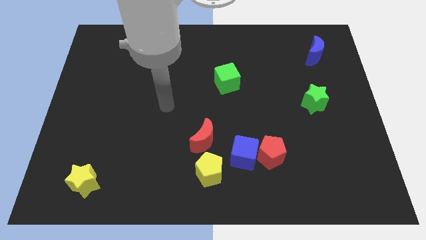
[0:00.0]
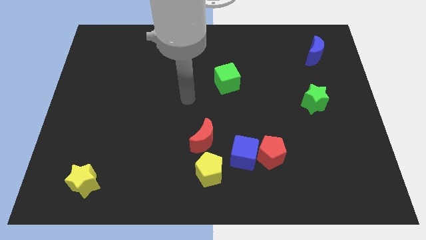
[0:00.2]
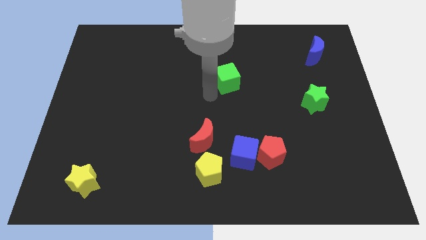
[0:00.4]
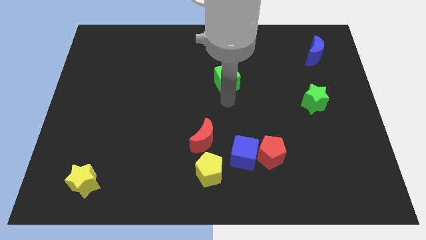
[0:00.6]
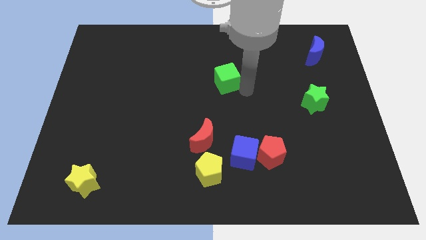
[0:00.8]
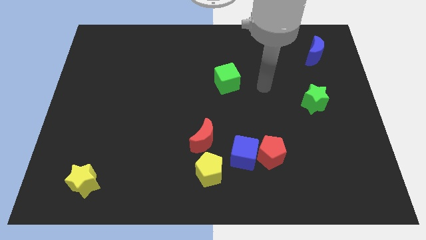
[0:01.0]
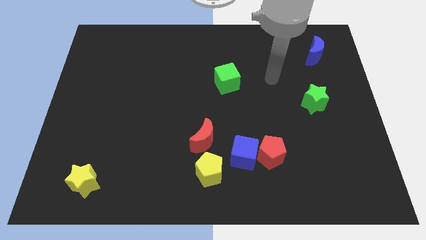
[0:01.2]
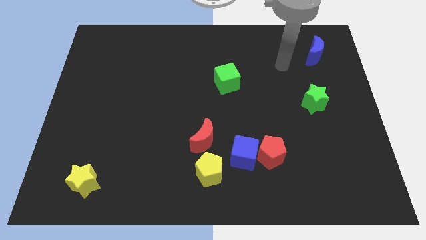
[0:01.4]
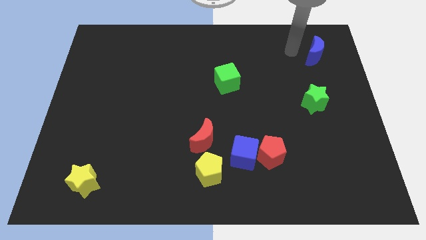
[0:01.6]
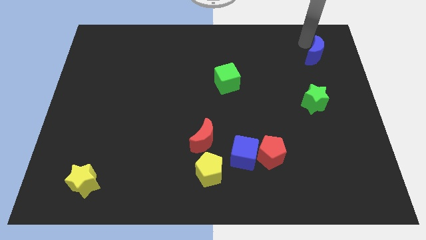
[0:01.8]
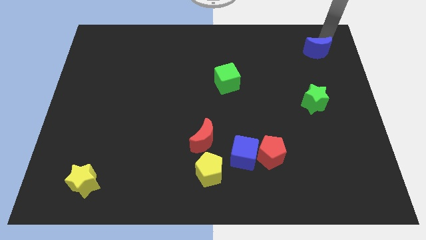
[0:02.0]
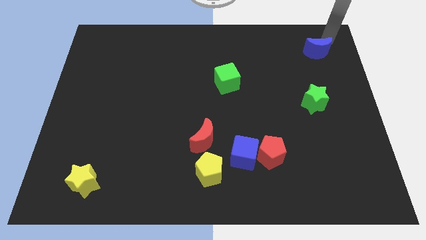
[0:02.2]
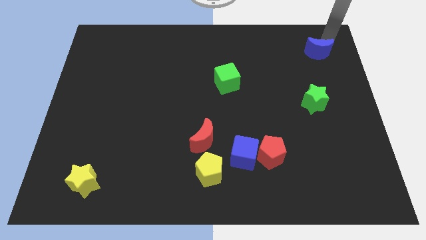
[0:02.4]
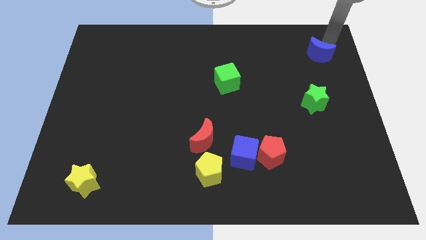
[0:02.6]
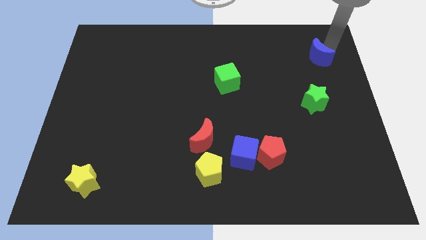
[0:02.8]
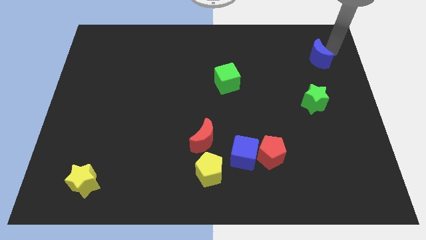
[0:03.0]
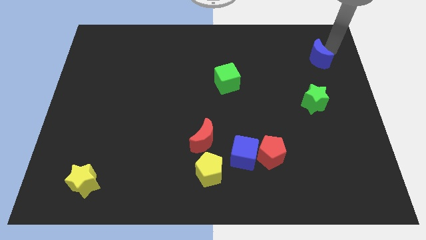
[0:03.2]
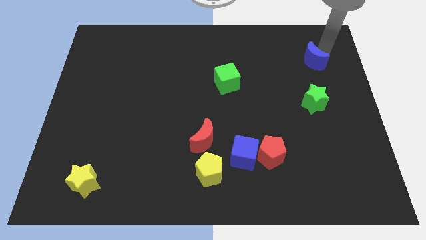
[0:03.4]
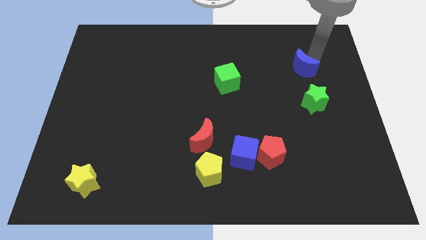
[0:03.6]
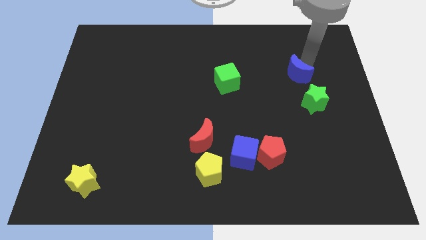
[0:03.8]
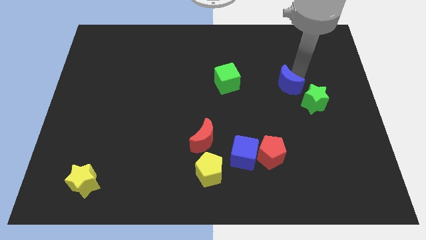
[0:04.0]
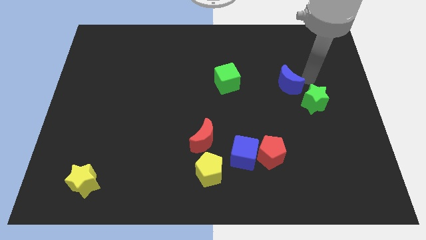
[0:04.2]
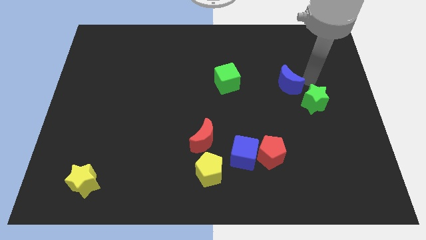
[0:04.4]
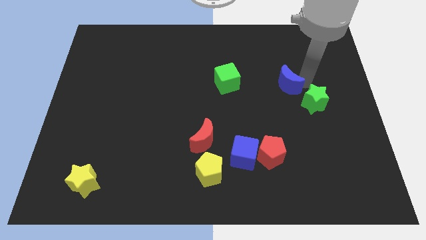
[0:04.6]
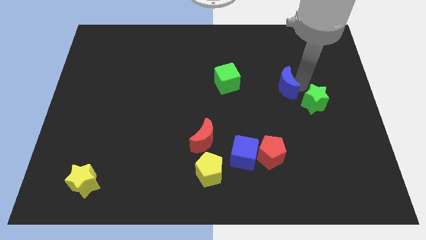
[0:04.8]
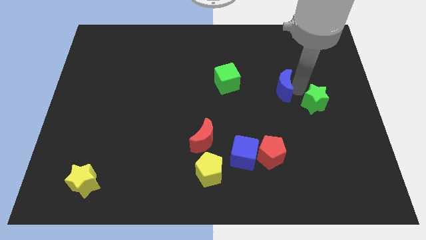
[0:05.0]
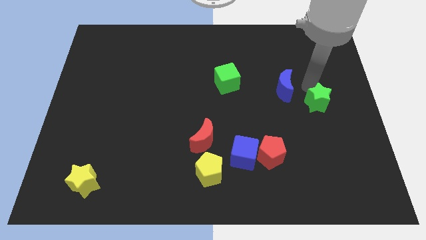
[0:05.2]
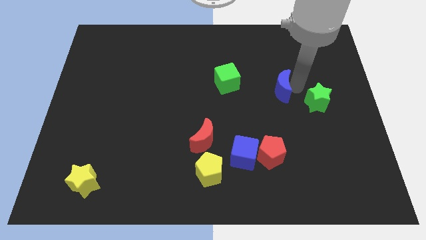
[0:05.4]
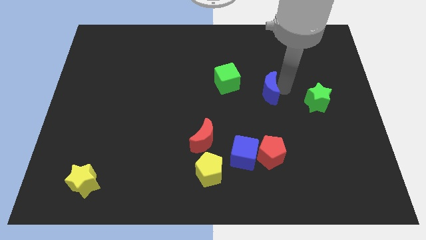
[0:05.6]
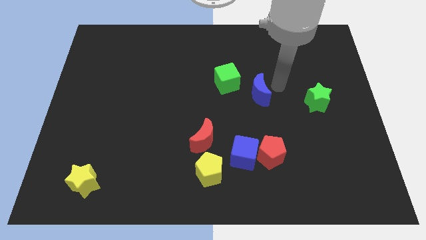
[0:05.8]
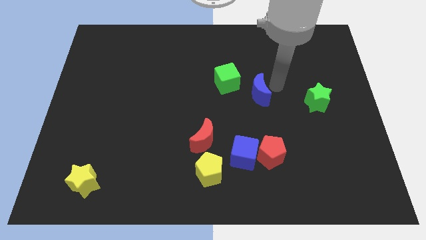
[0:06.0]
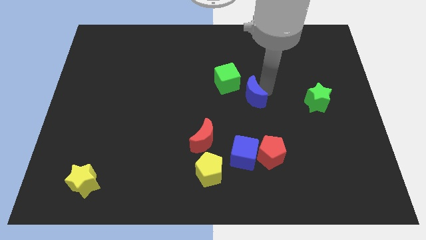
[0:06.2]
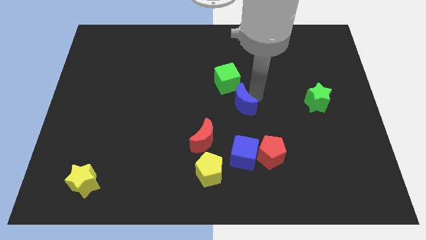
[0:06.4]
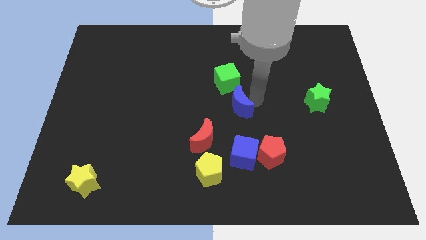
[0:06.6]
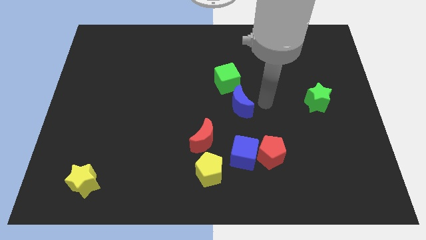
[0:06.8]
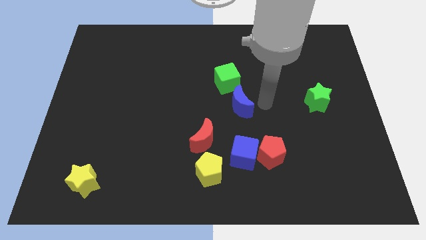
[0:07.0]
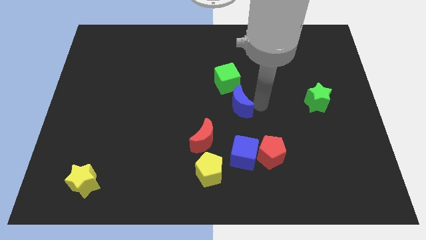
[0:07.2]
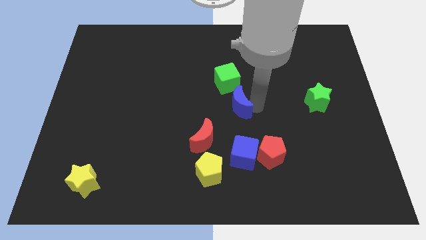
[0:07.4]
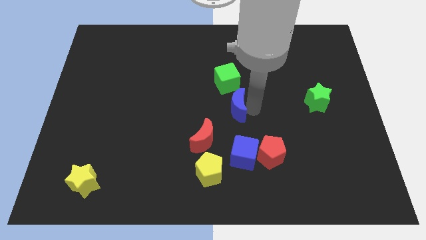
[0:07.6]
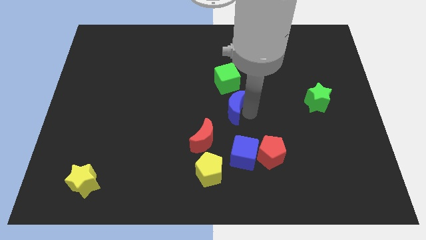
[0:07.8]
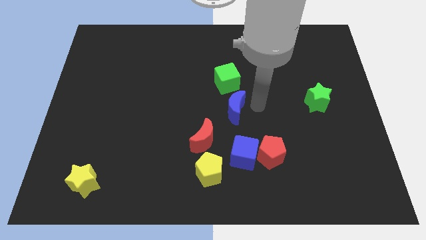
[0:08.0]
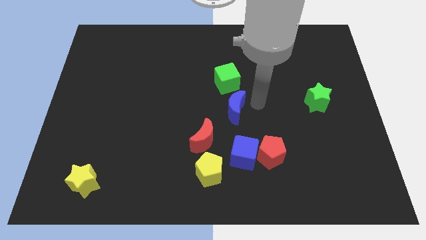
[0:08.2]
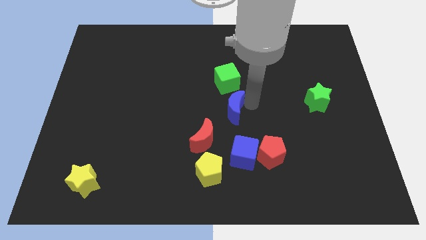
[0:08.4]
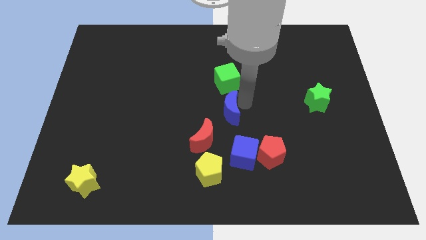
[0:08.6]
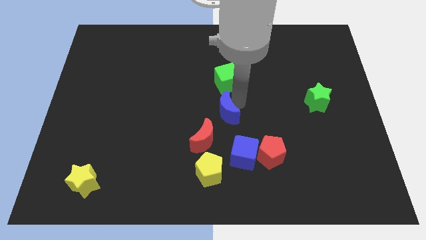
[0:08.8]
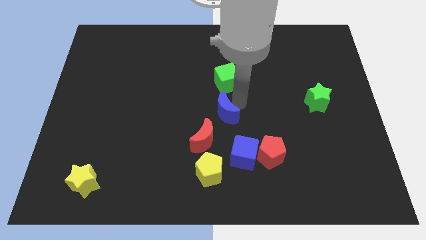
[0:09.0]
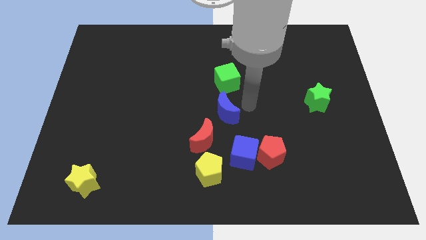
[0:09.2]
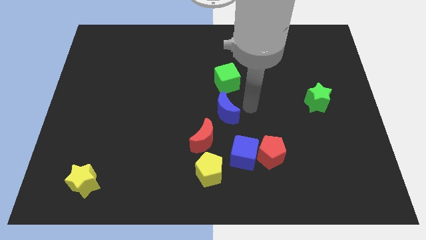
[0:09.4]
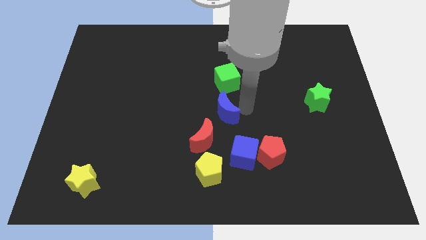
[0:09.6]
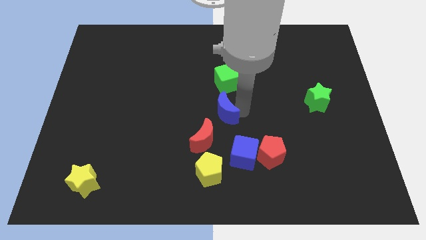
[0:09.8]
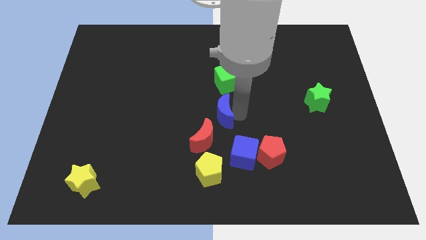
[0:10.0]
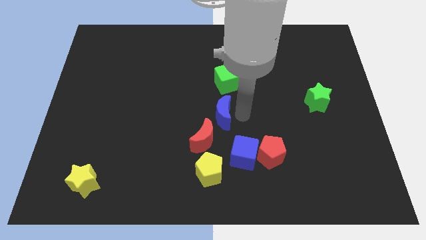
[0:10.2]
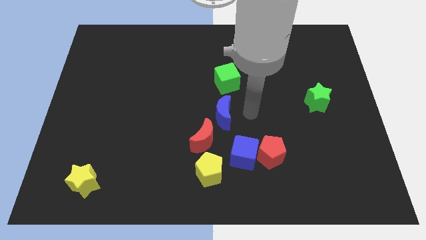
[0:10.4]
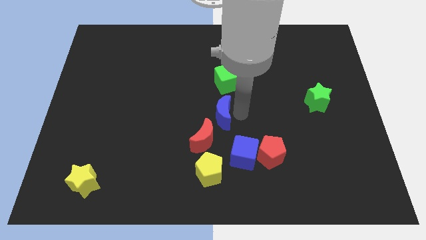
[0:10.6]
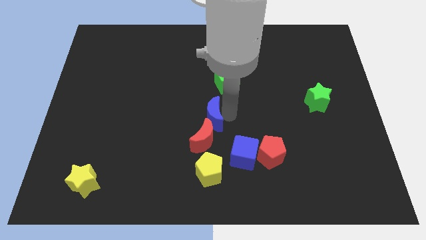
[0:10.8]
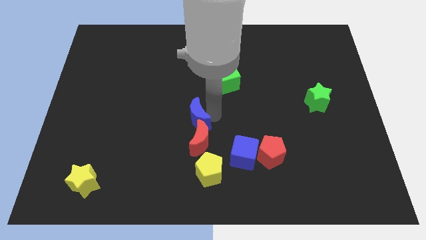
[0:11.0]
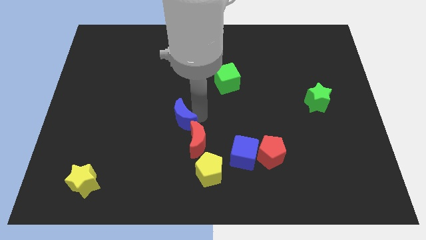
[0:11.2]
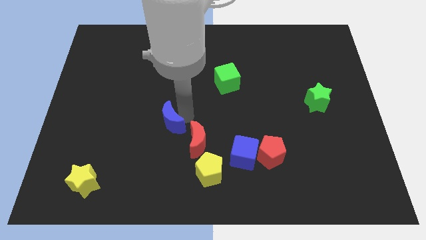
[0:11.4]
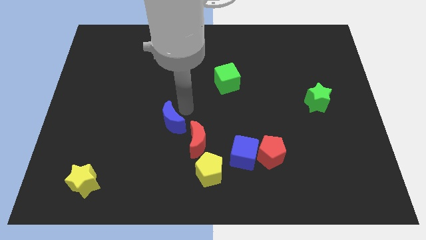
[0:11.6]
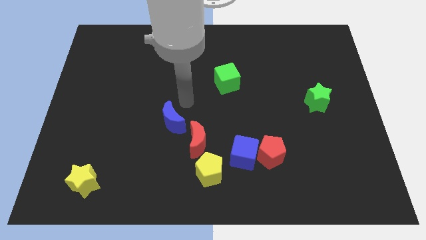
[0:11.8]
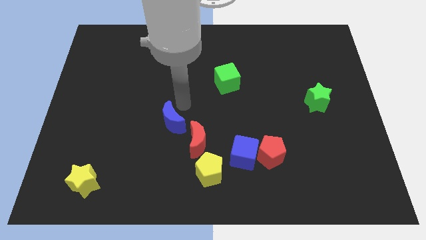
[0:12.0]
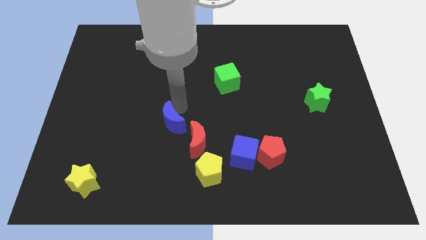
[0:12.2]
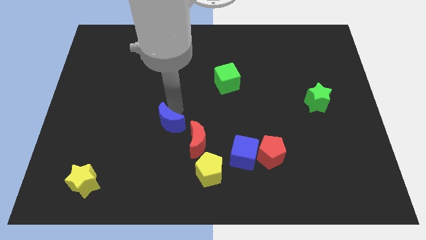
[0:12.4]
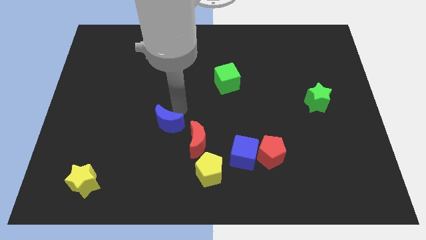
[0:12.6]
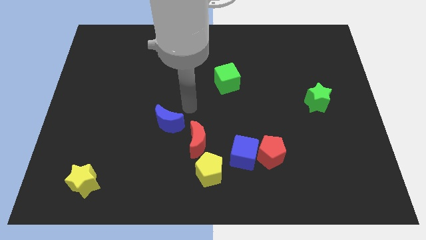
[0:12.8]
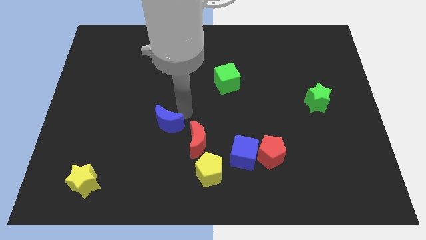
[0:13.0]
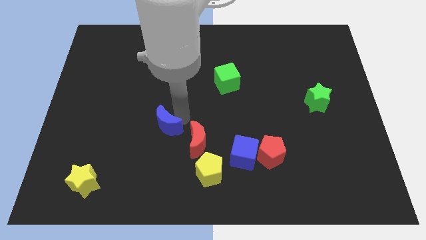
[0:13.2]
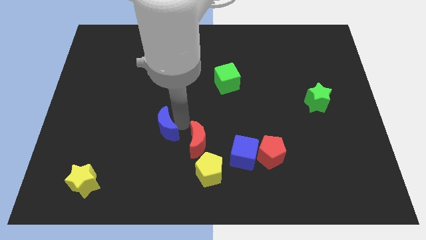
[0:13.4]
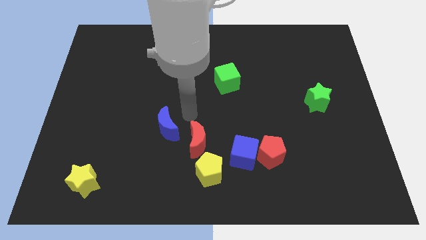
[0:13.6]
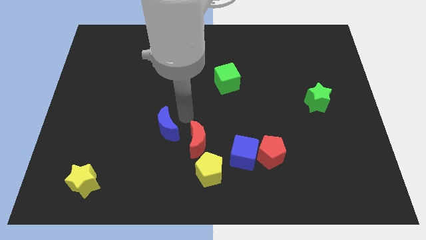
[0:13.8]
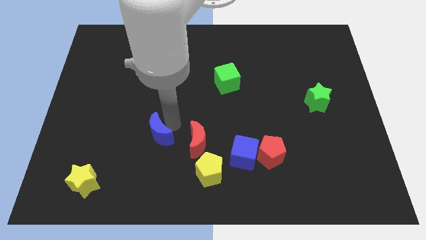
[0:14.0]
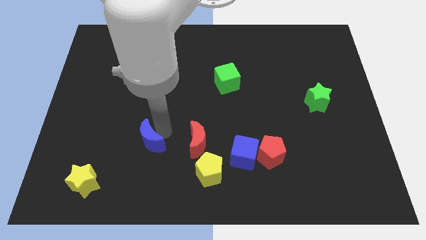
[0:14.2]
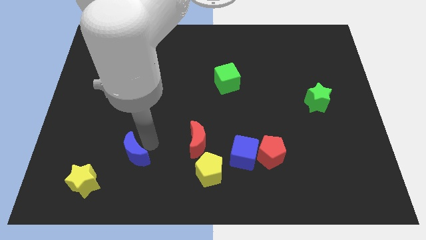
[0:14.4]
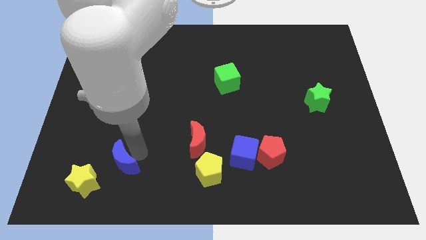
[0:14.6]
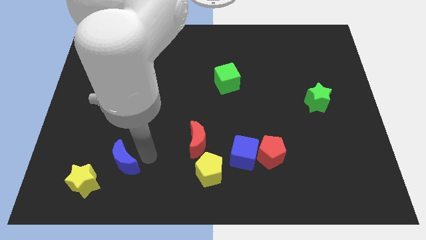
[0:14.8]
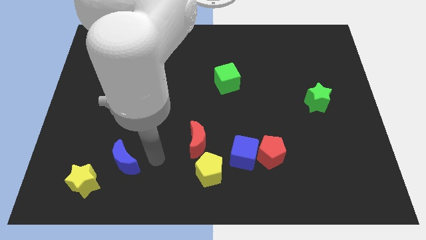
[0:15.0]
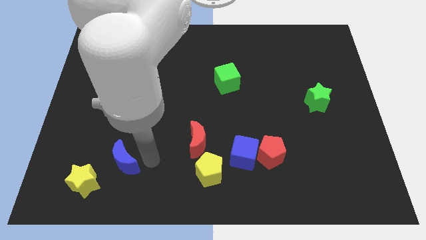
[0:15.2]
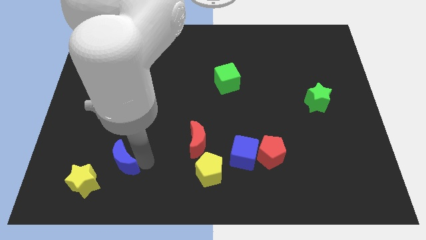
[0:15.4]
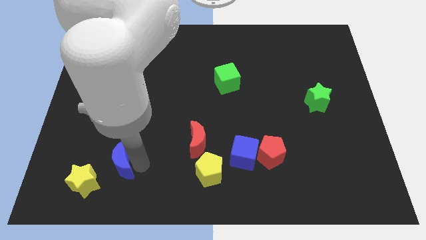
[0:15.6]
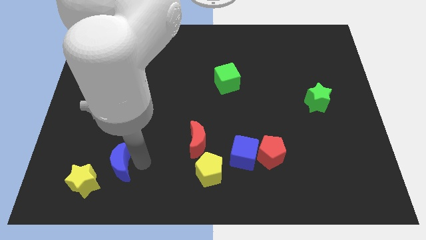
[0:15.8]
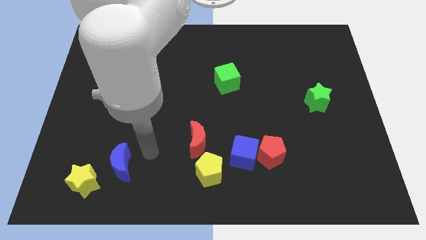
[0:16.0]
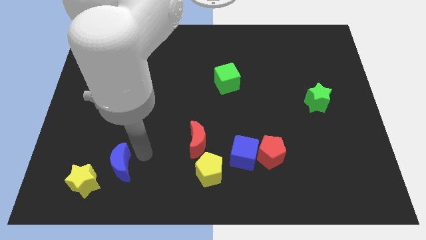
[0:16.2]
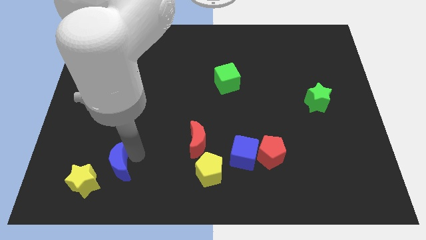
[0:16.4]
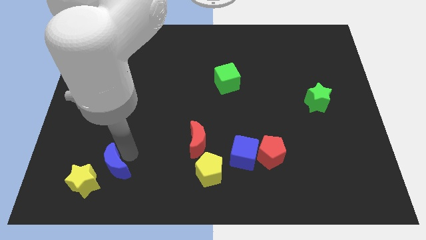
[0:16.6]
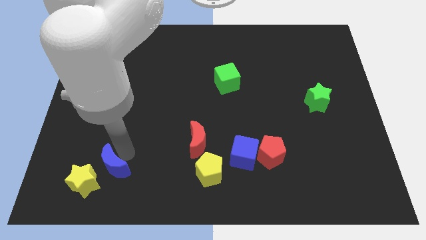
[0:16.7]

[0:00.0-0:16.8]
push the blue moon towards the yellow star
